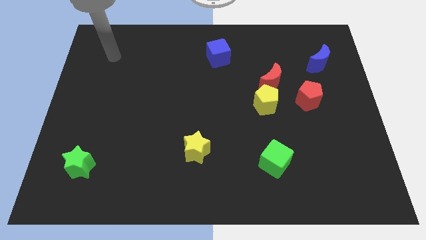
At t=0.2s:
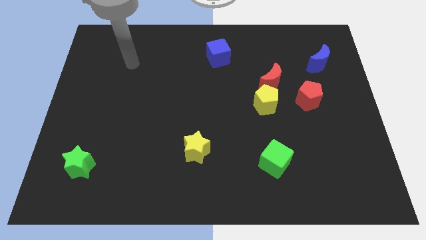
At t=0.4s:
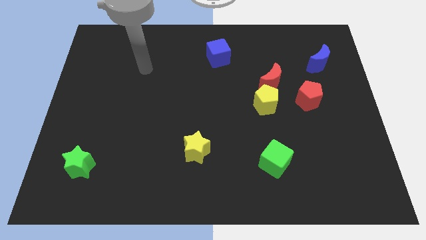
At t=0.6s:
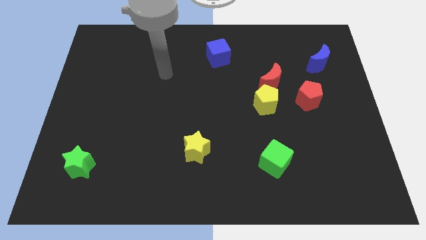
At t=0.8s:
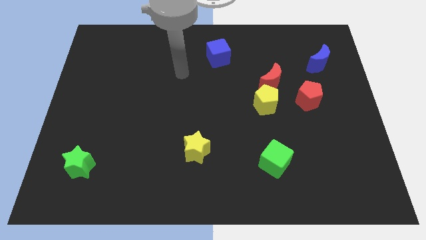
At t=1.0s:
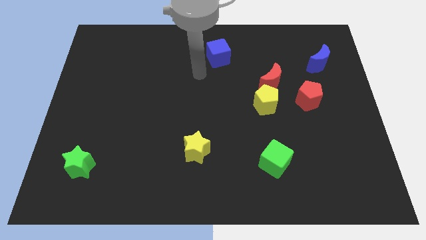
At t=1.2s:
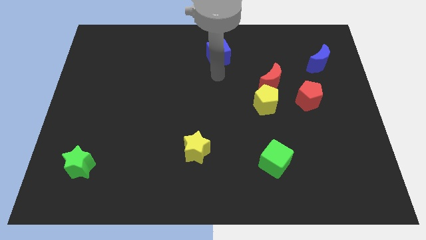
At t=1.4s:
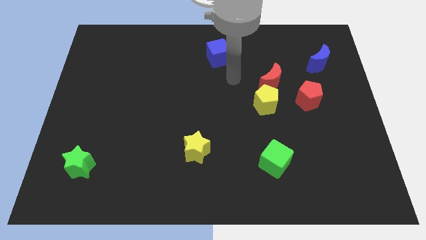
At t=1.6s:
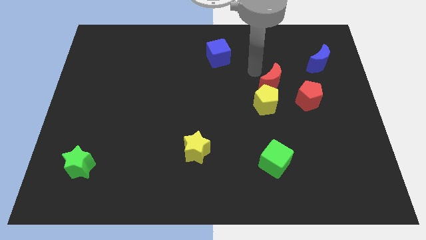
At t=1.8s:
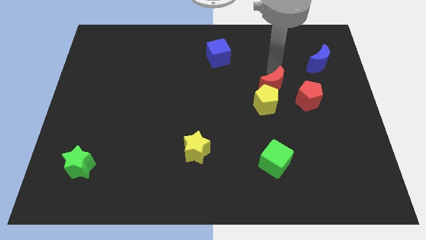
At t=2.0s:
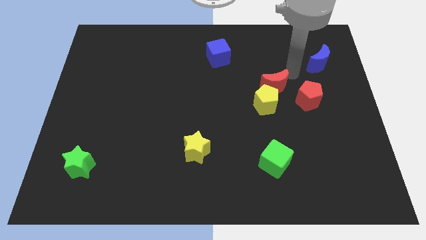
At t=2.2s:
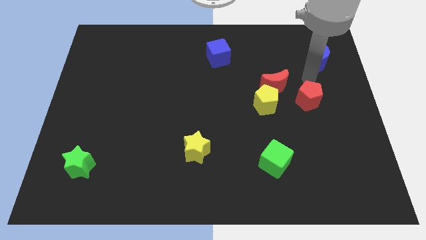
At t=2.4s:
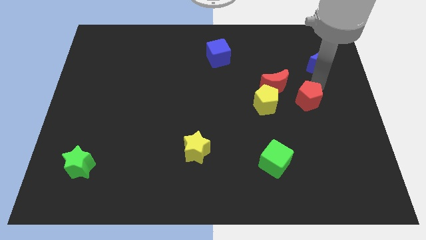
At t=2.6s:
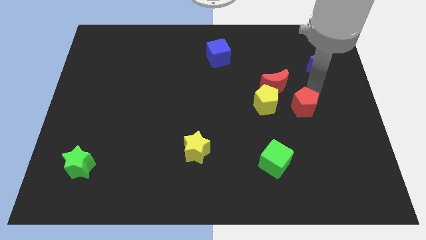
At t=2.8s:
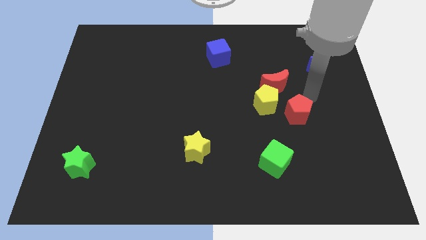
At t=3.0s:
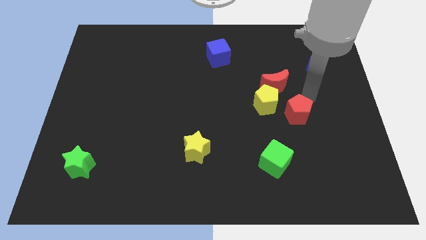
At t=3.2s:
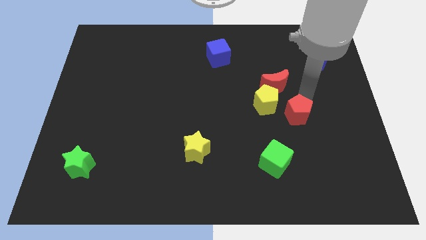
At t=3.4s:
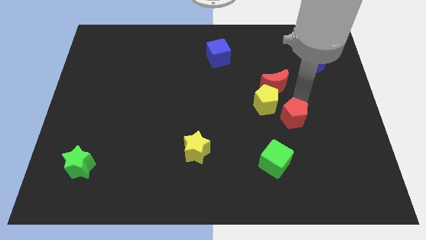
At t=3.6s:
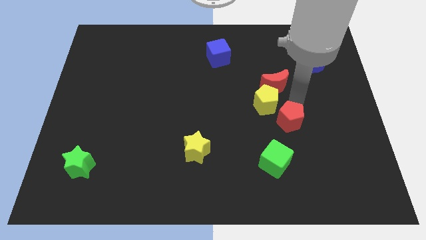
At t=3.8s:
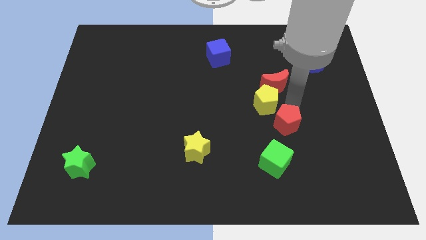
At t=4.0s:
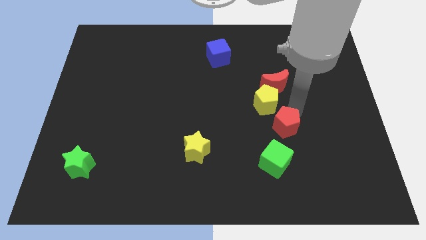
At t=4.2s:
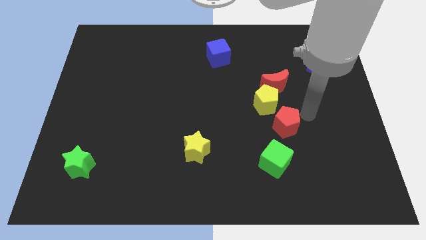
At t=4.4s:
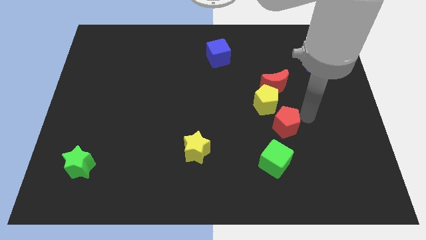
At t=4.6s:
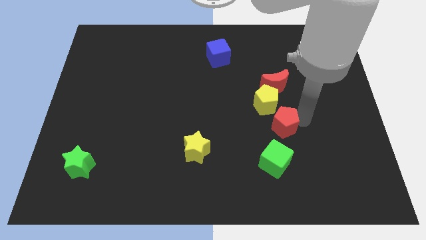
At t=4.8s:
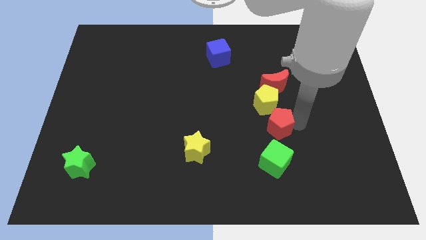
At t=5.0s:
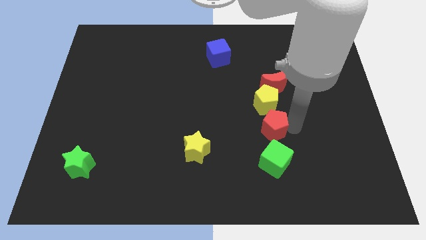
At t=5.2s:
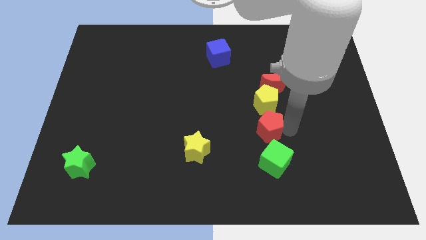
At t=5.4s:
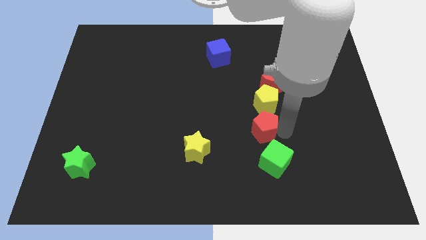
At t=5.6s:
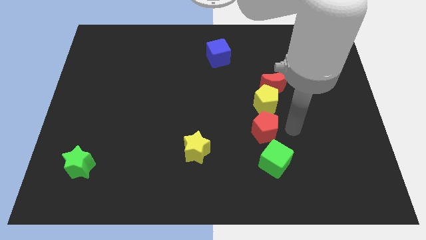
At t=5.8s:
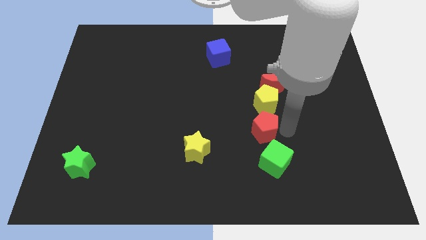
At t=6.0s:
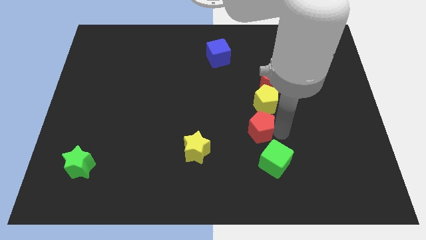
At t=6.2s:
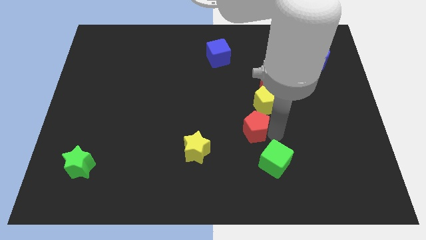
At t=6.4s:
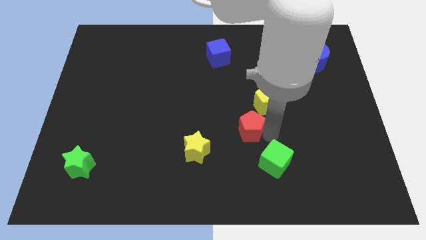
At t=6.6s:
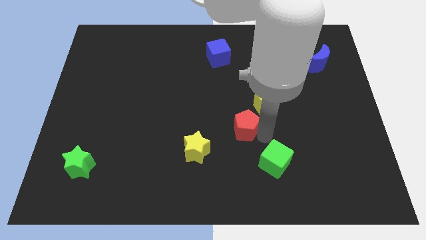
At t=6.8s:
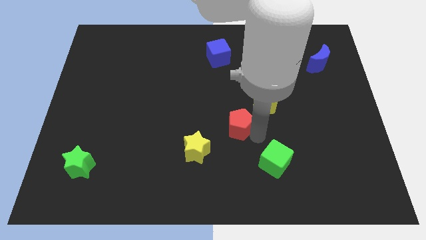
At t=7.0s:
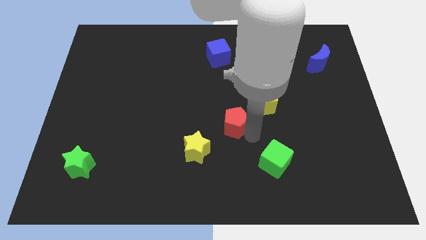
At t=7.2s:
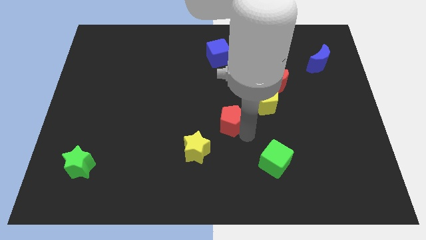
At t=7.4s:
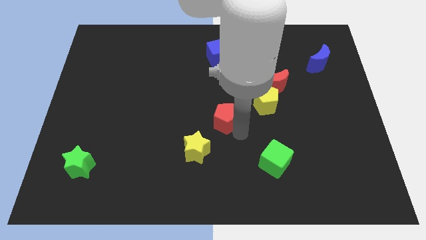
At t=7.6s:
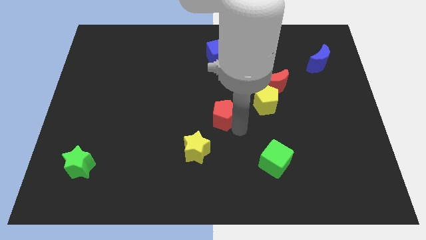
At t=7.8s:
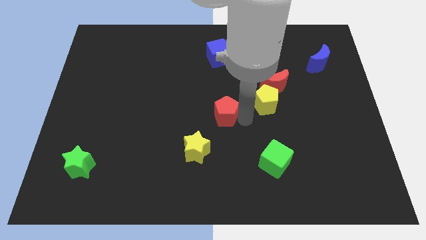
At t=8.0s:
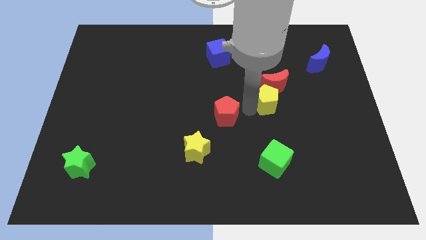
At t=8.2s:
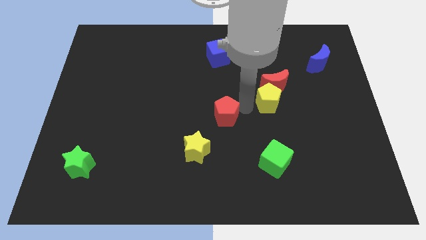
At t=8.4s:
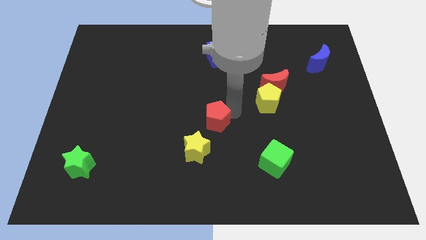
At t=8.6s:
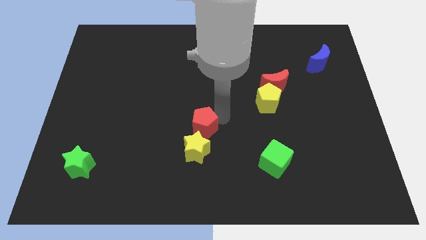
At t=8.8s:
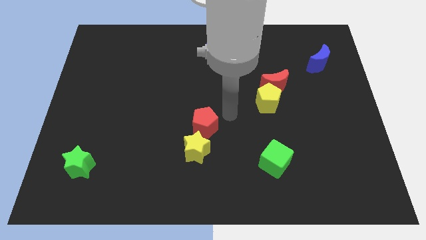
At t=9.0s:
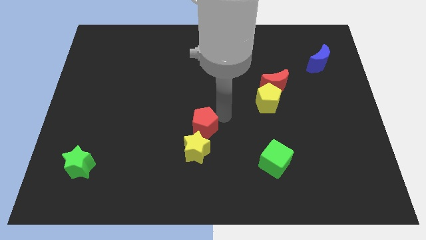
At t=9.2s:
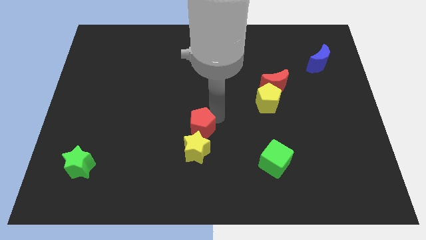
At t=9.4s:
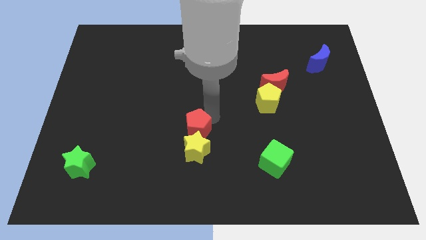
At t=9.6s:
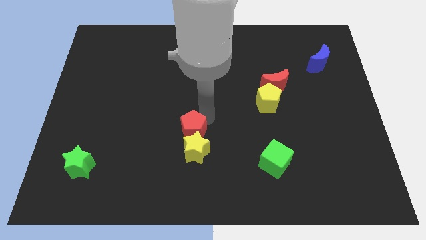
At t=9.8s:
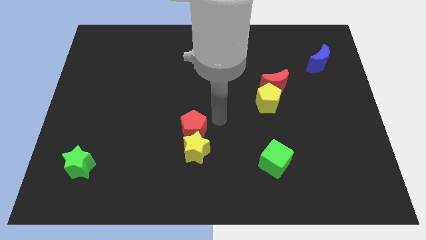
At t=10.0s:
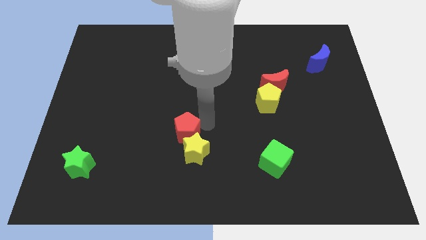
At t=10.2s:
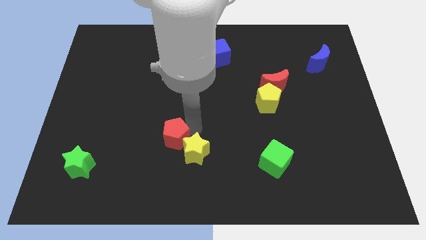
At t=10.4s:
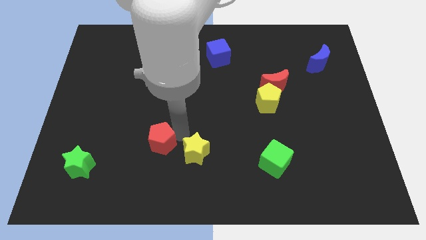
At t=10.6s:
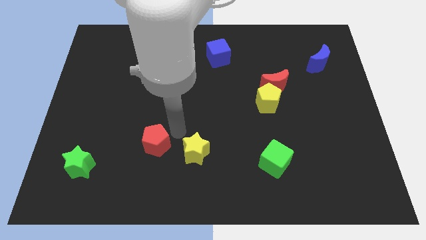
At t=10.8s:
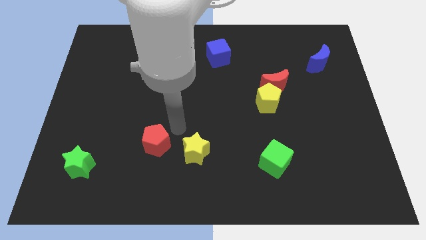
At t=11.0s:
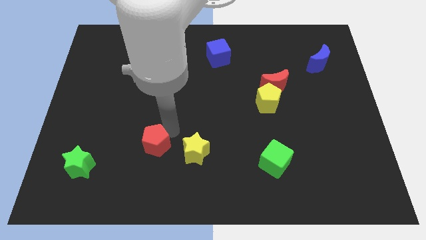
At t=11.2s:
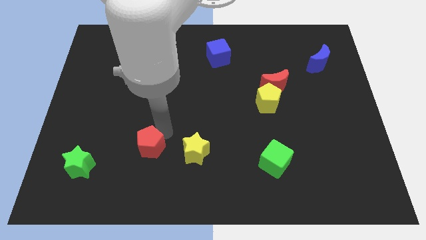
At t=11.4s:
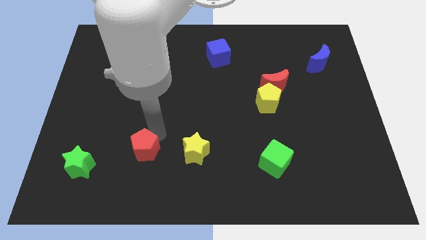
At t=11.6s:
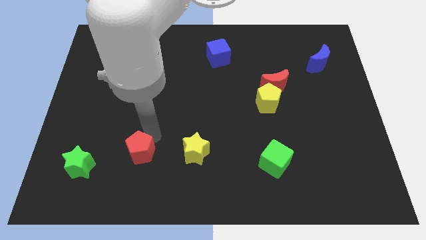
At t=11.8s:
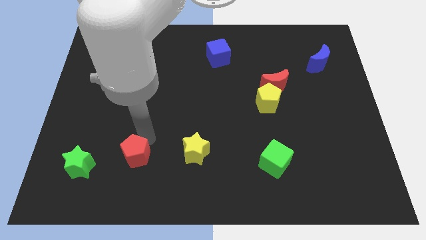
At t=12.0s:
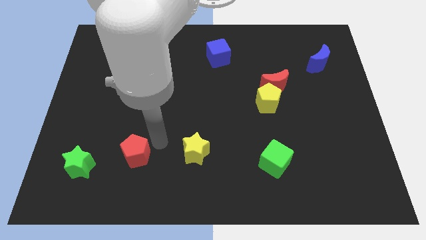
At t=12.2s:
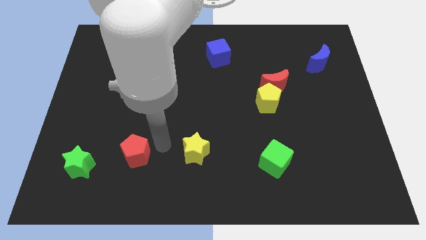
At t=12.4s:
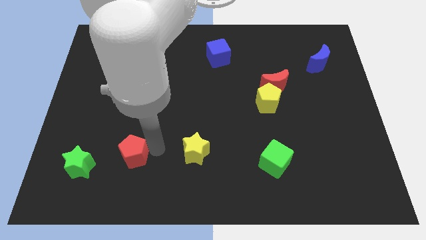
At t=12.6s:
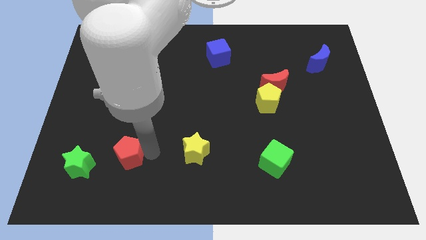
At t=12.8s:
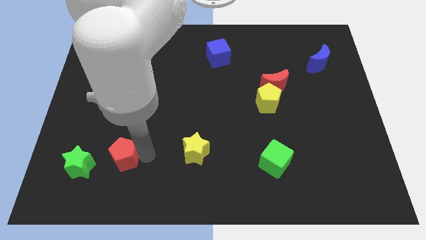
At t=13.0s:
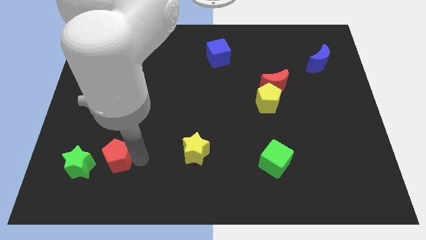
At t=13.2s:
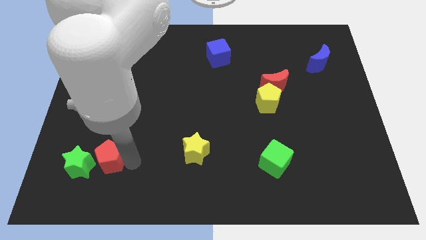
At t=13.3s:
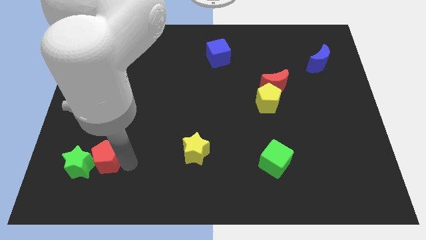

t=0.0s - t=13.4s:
put the red pentagon to the green star

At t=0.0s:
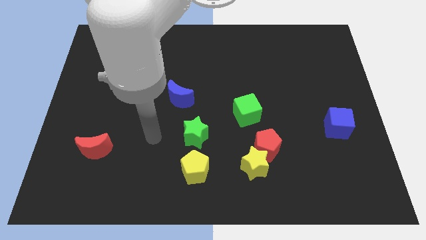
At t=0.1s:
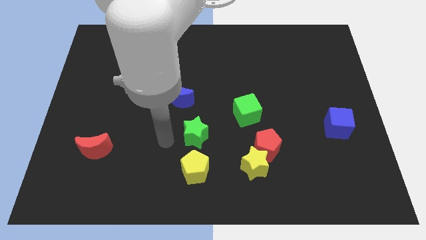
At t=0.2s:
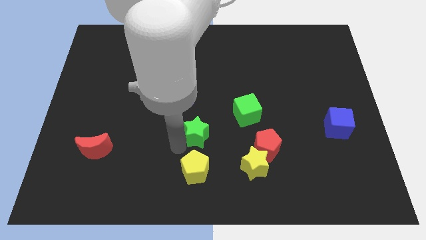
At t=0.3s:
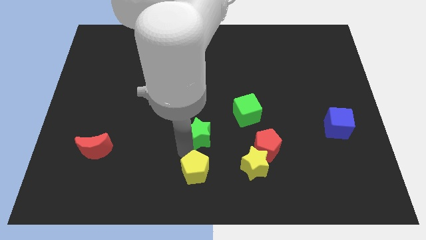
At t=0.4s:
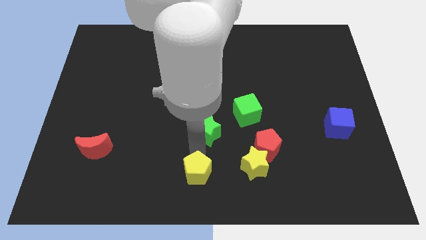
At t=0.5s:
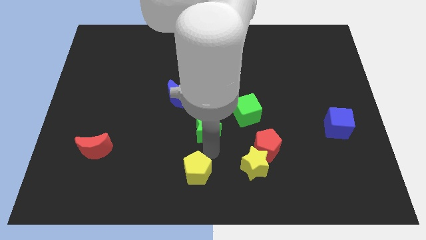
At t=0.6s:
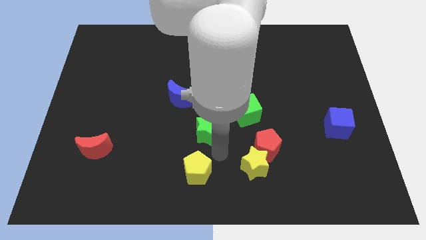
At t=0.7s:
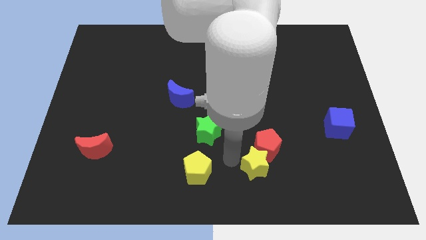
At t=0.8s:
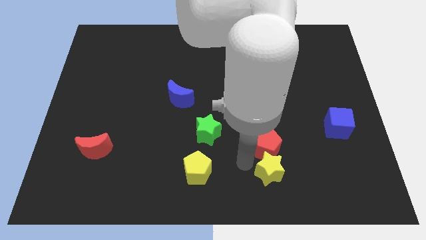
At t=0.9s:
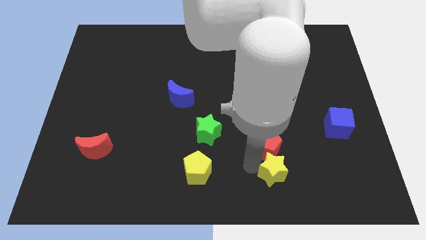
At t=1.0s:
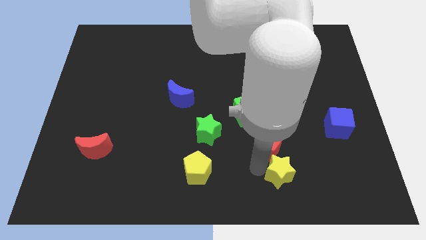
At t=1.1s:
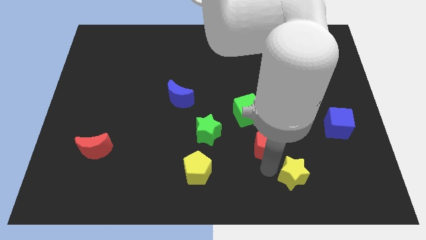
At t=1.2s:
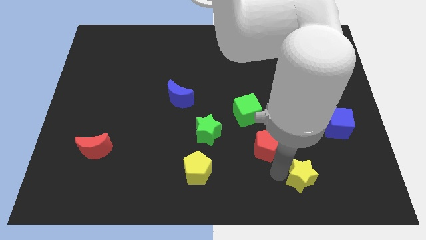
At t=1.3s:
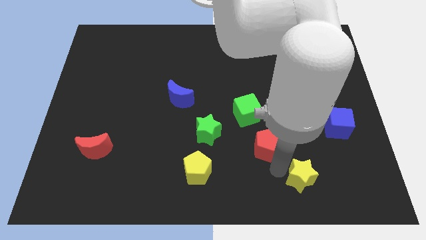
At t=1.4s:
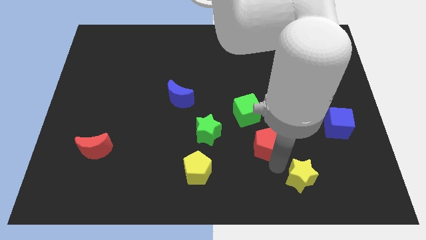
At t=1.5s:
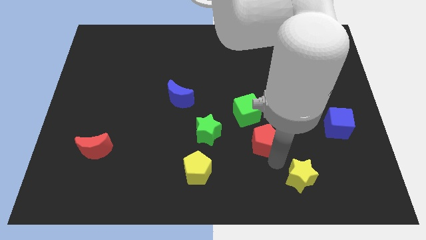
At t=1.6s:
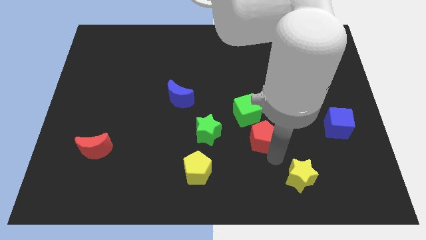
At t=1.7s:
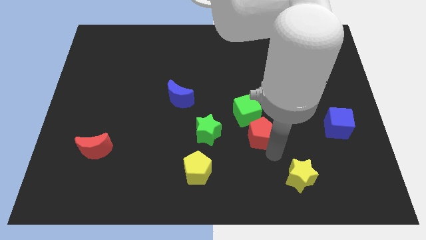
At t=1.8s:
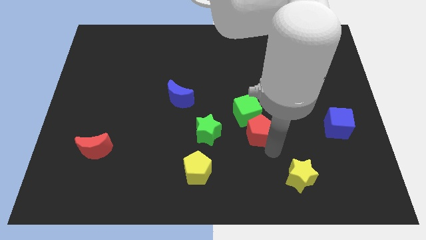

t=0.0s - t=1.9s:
push the red pentagon towards the green cube
